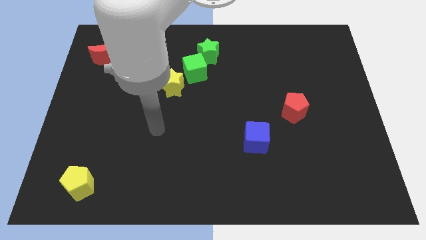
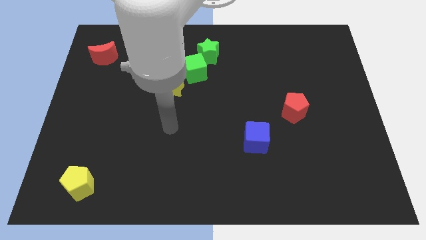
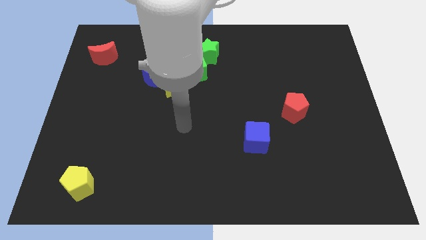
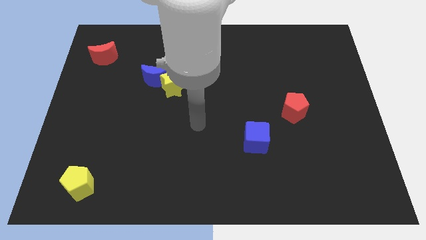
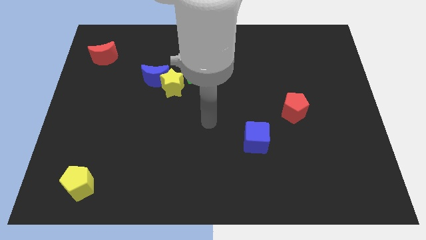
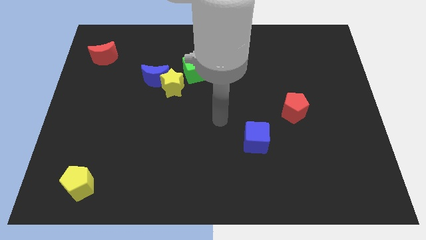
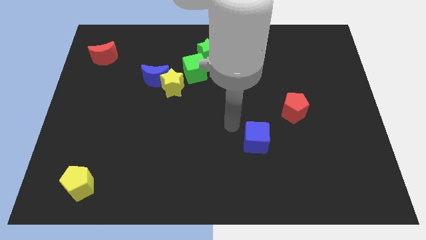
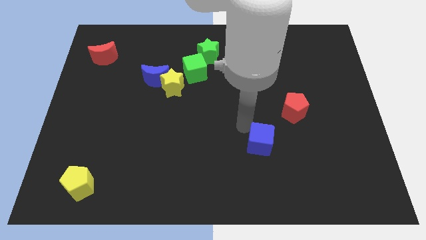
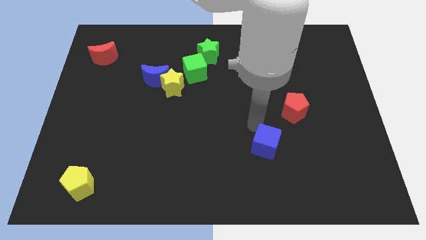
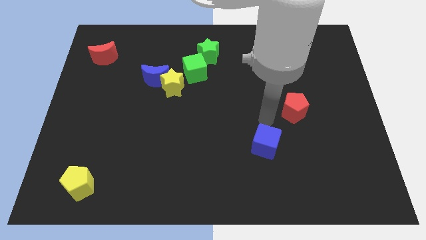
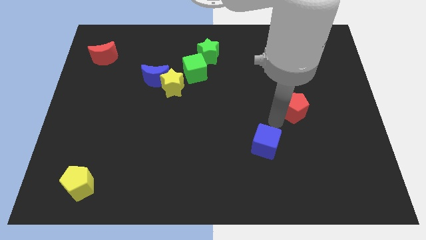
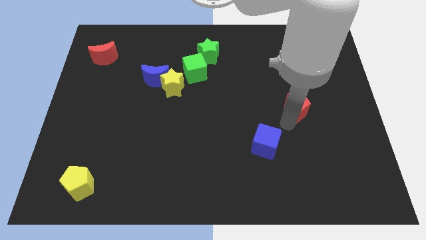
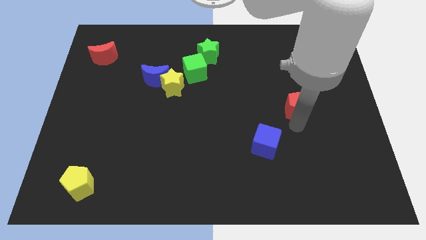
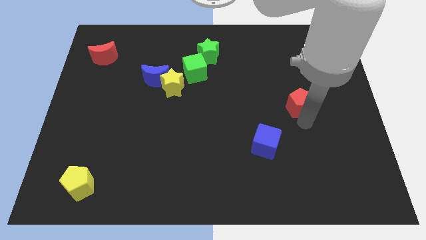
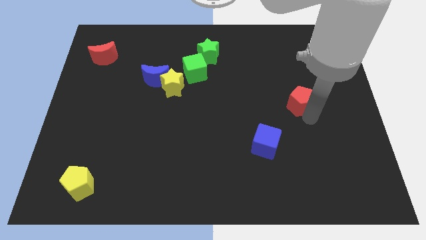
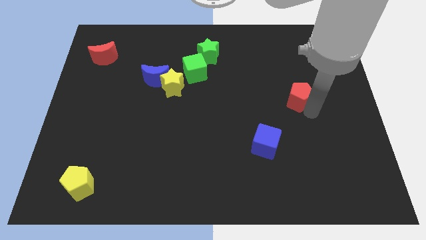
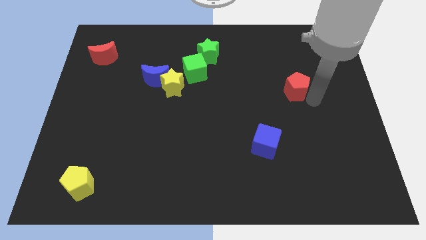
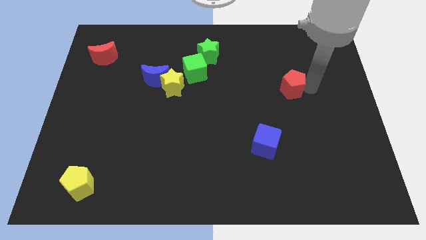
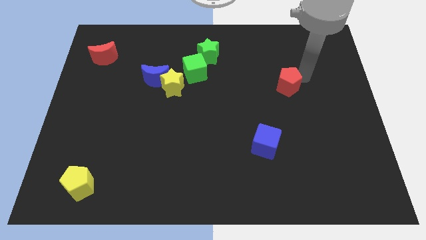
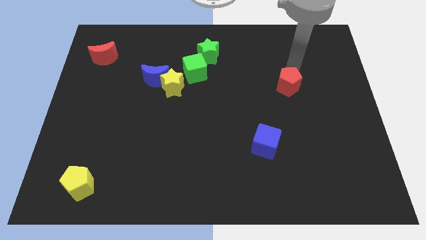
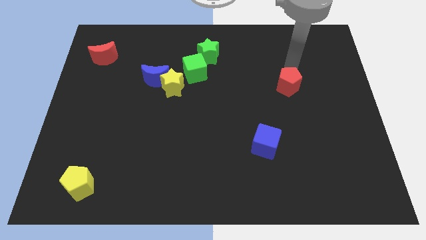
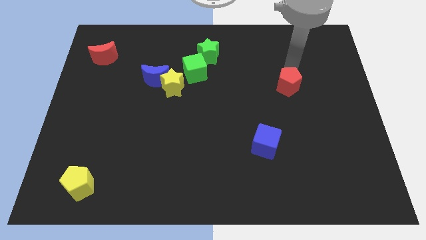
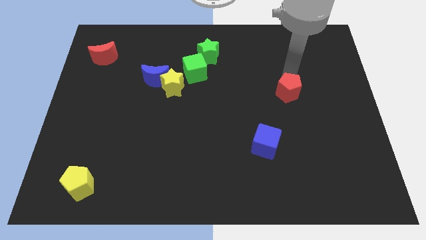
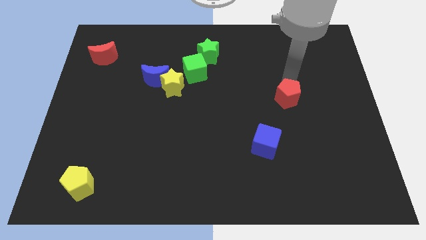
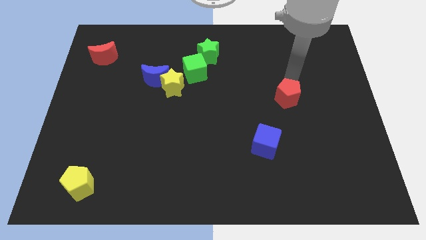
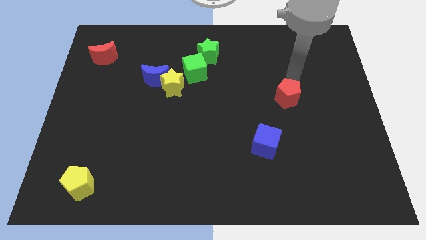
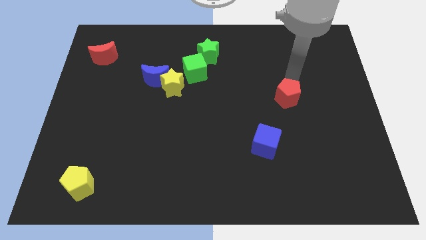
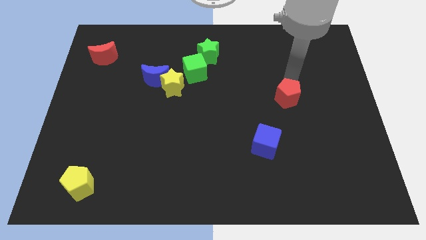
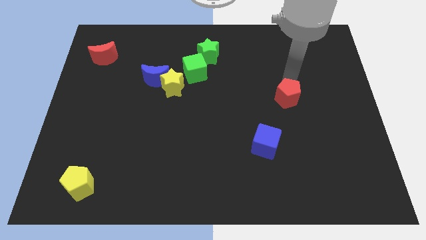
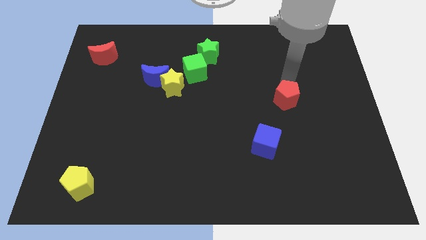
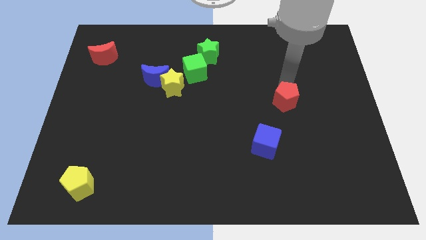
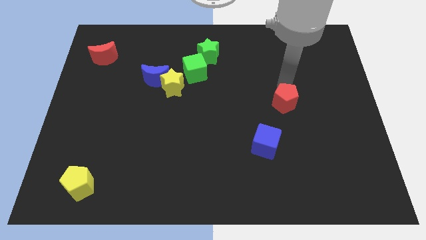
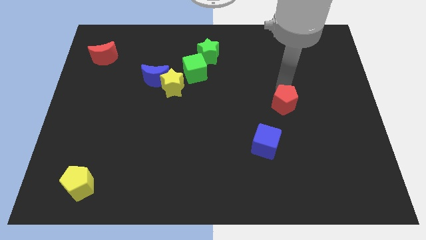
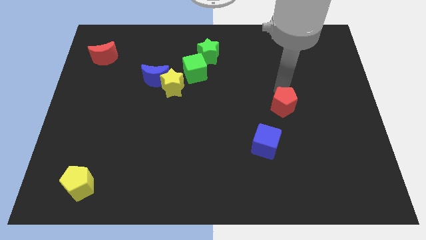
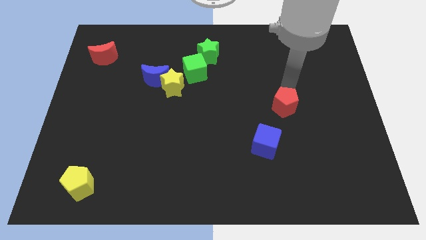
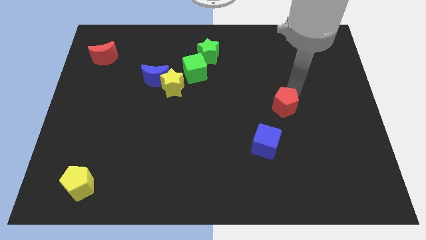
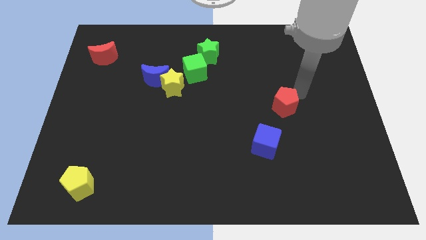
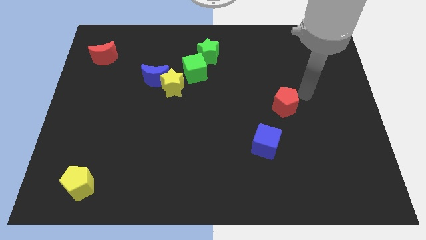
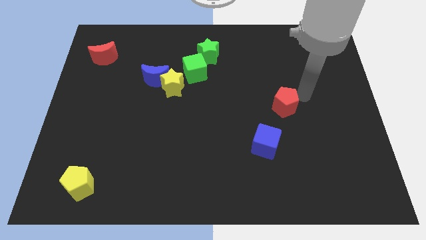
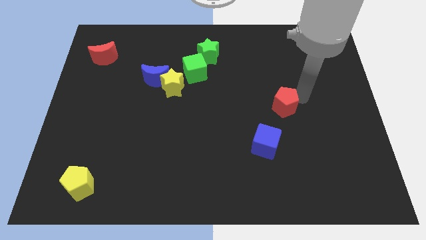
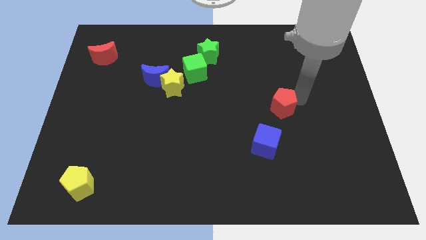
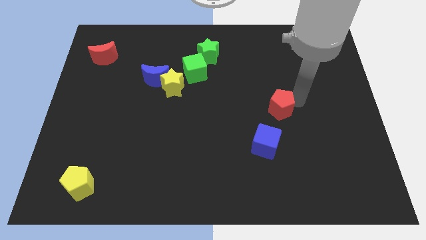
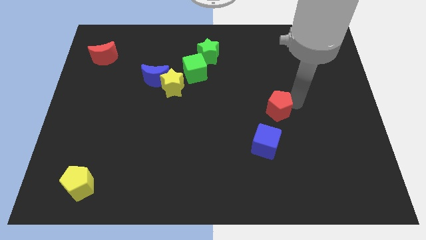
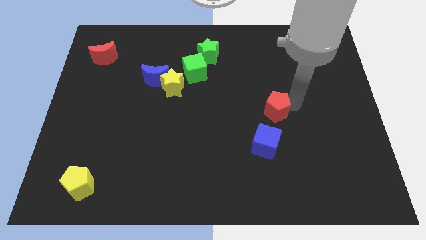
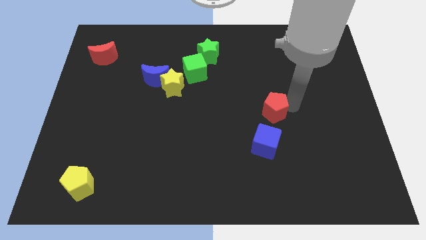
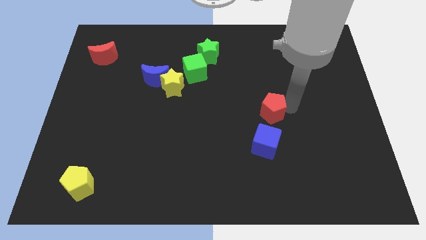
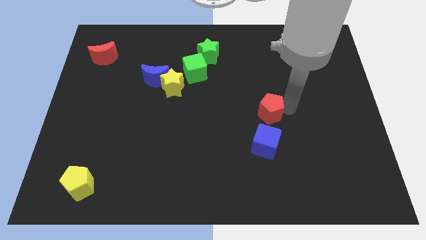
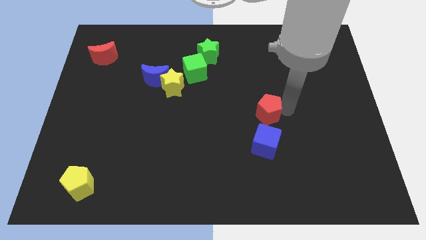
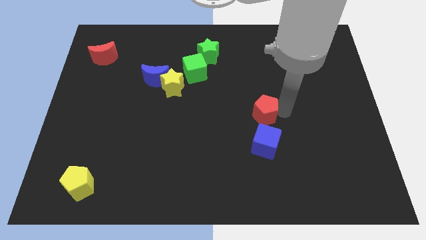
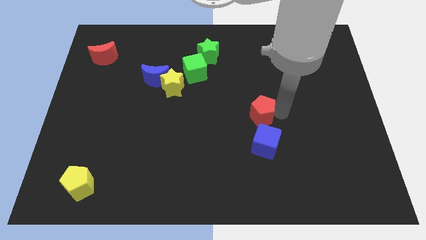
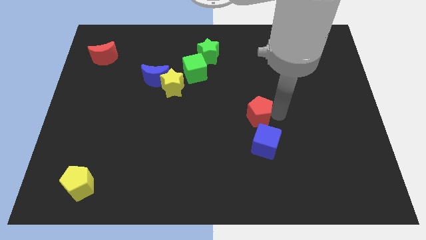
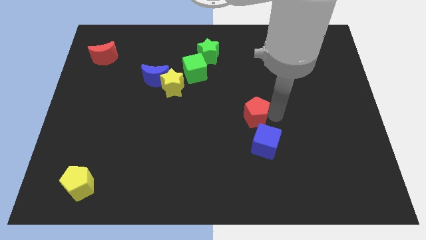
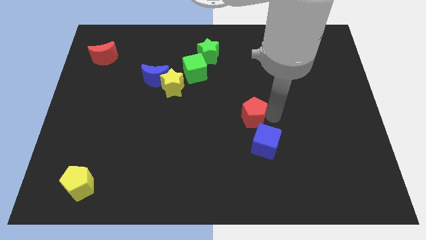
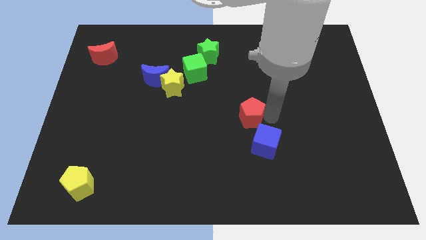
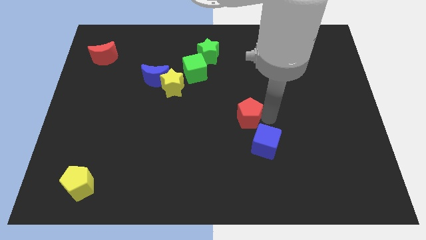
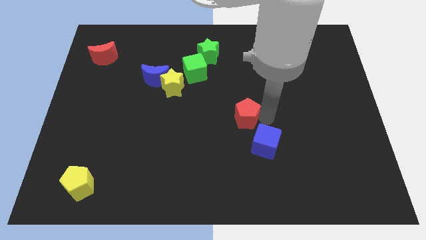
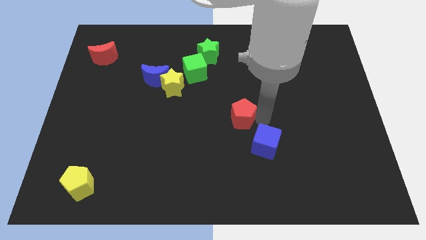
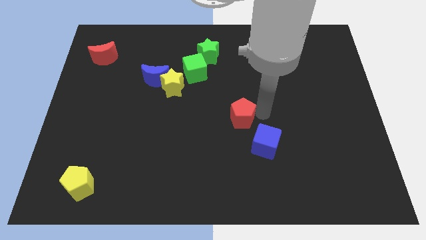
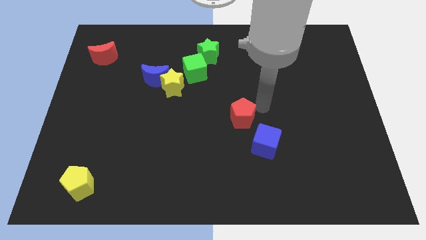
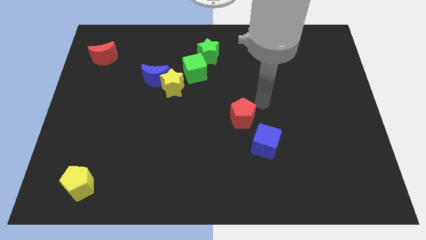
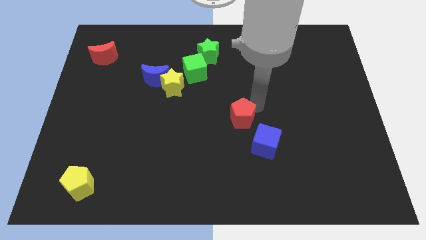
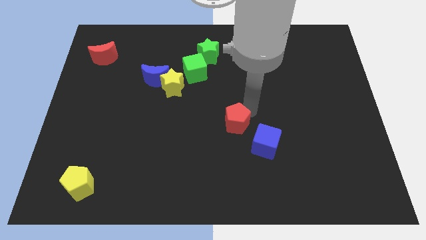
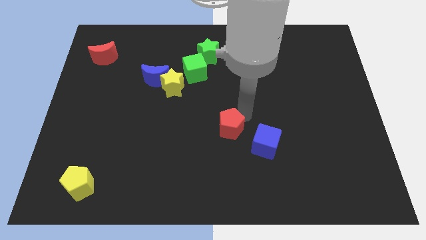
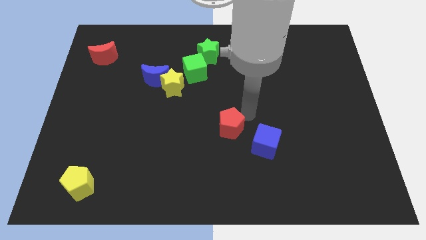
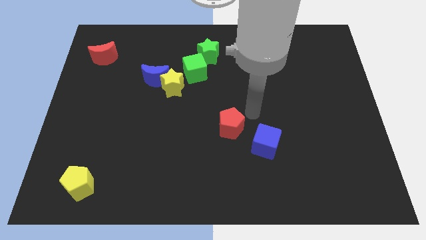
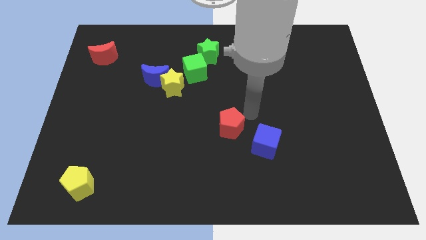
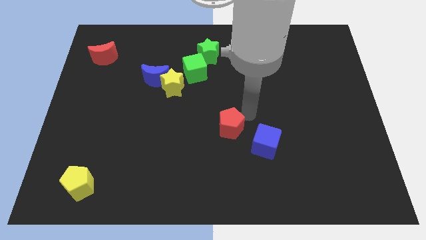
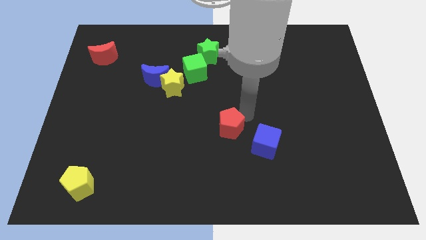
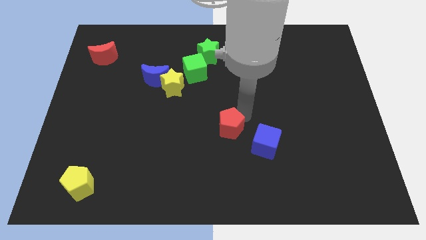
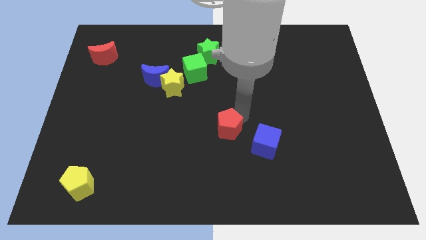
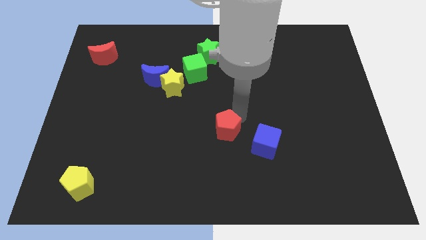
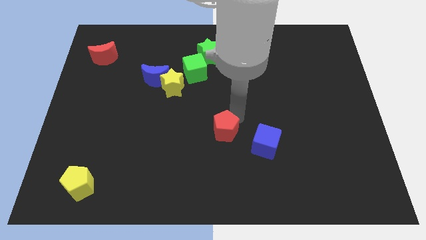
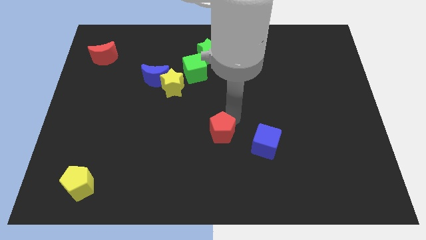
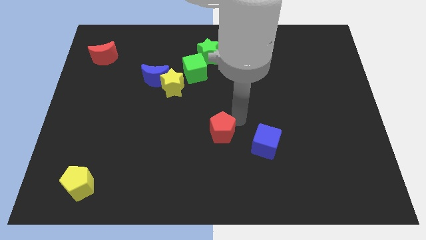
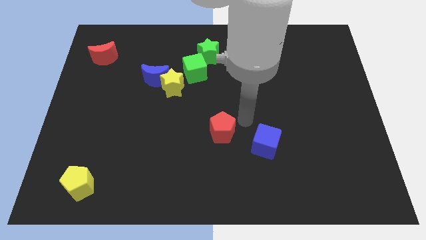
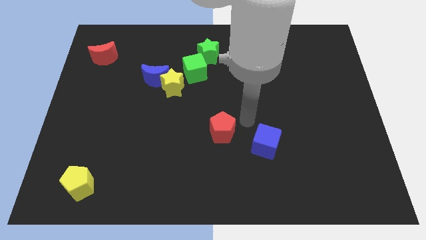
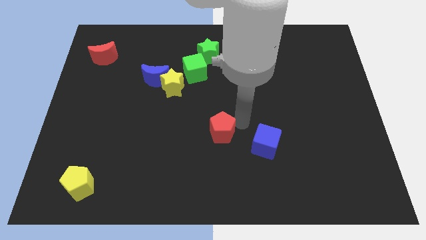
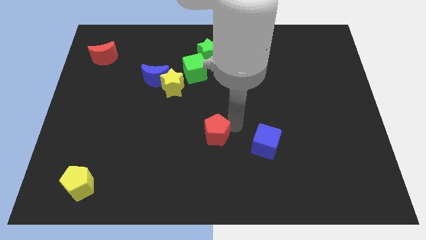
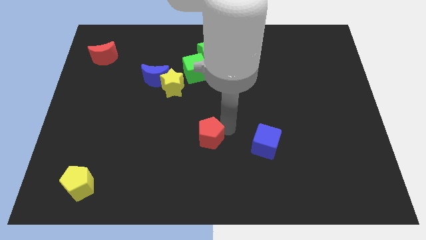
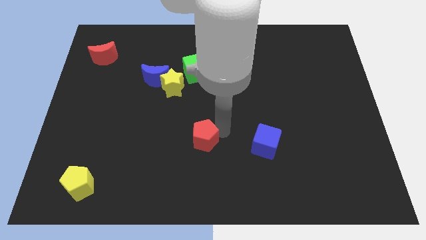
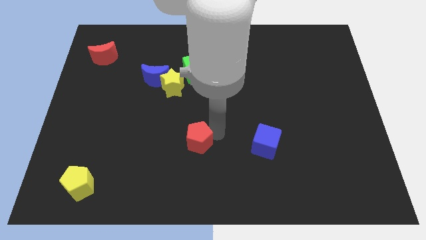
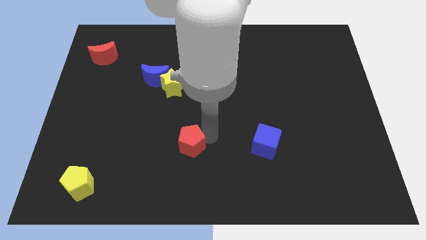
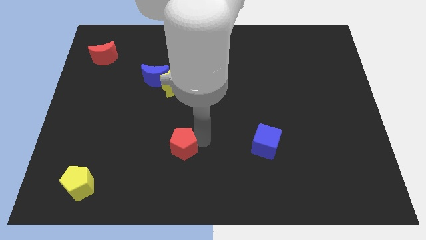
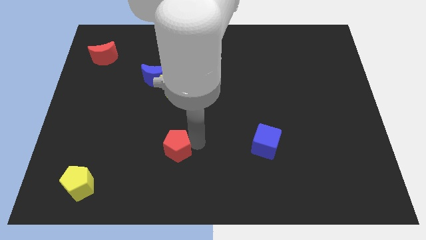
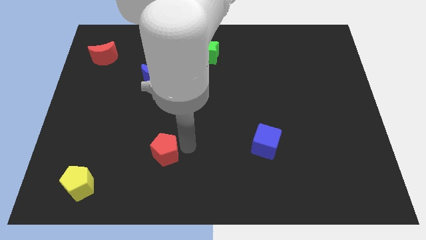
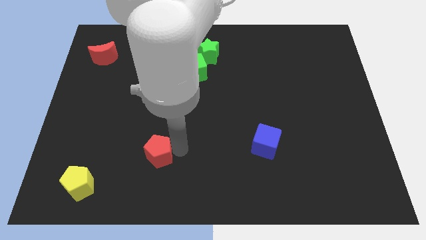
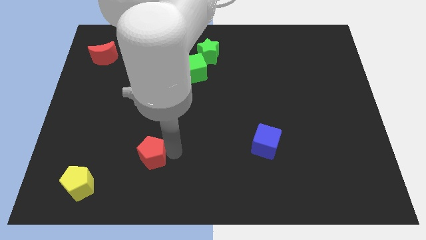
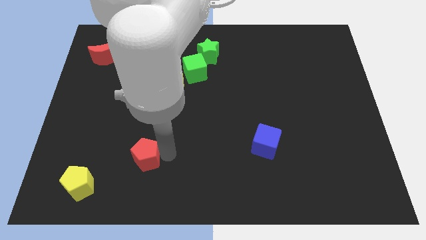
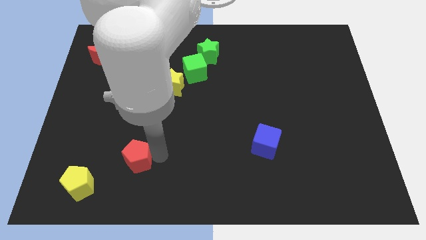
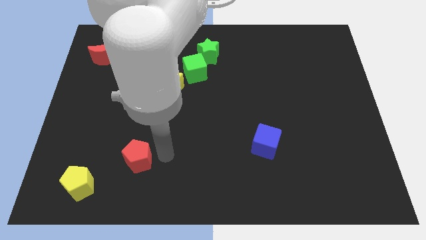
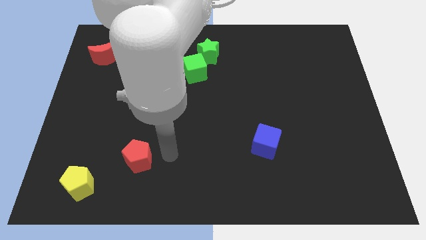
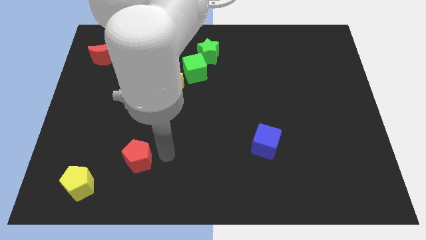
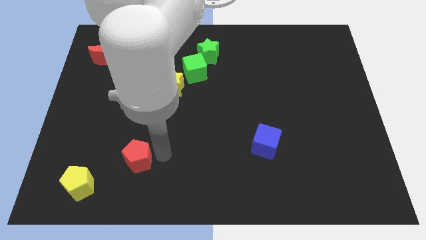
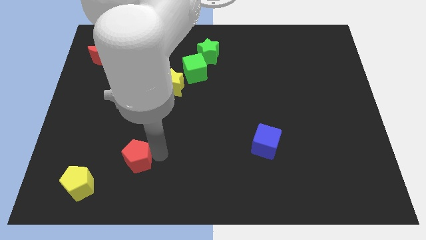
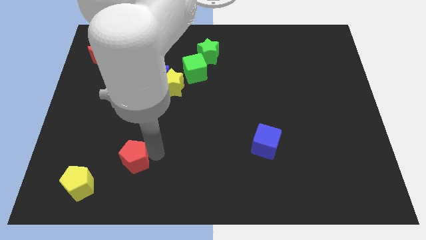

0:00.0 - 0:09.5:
move the red pentagon to the top right of the yellow pentagon
